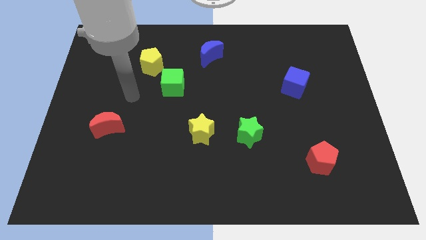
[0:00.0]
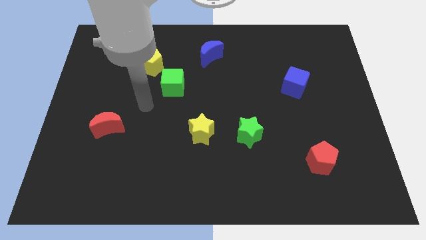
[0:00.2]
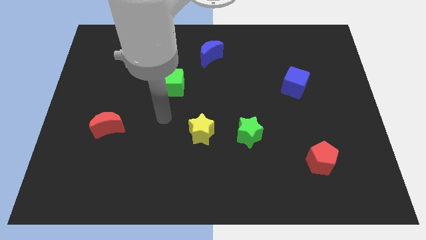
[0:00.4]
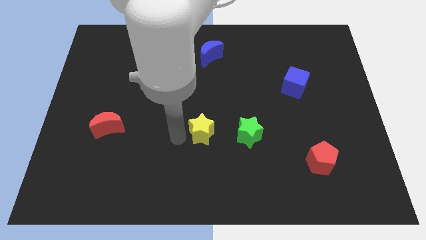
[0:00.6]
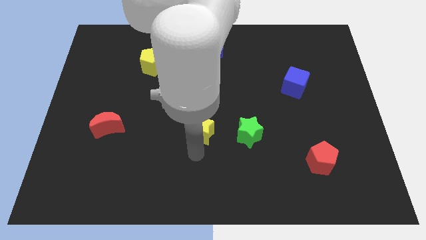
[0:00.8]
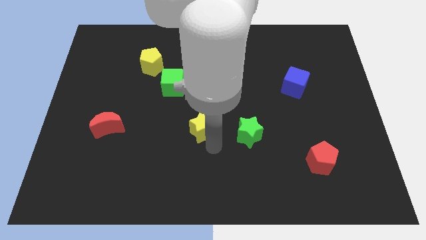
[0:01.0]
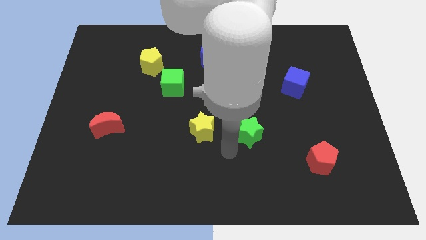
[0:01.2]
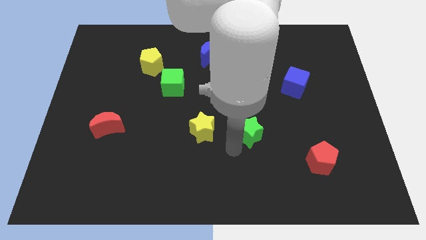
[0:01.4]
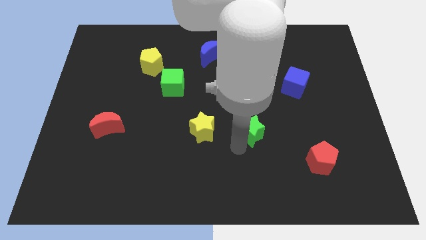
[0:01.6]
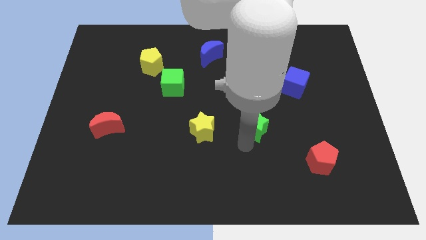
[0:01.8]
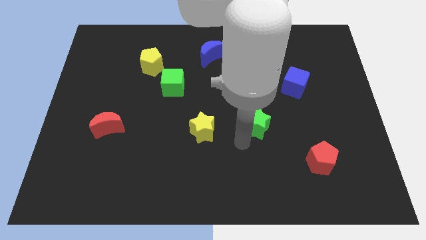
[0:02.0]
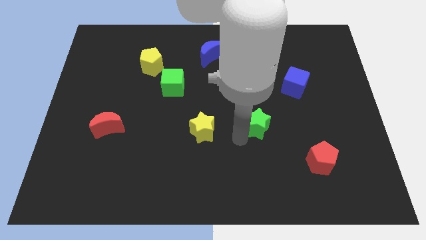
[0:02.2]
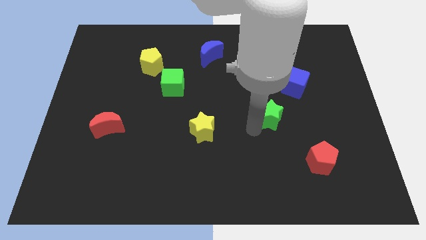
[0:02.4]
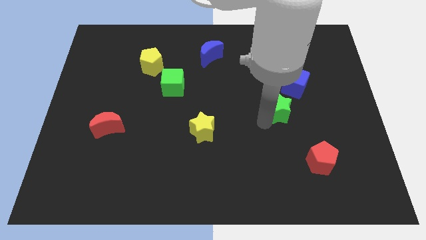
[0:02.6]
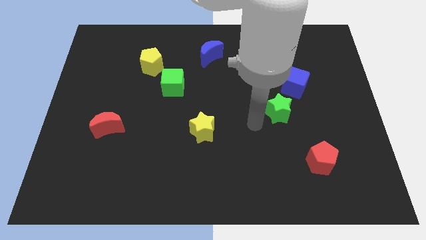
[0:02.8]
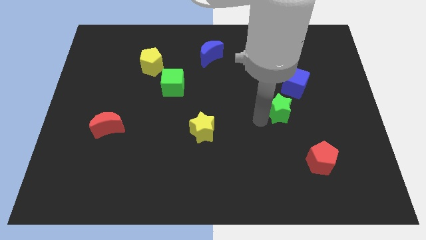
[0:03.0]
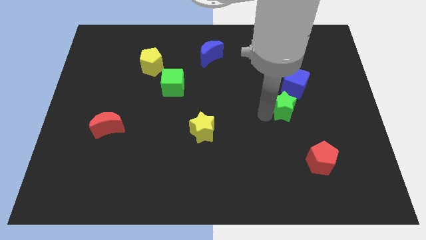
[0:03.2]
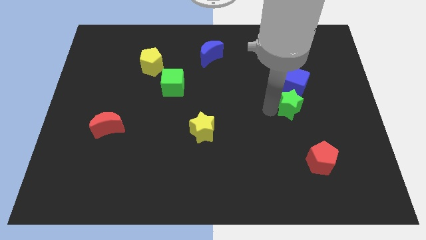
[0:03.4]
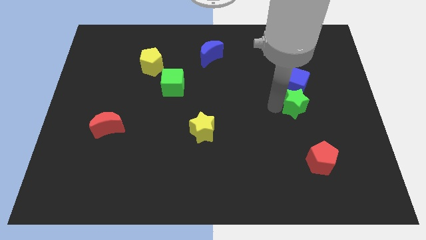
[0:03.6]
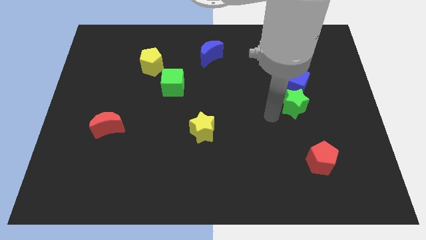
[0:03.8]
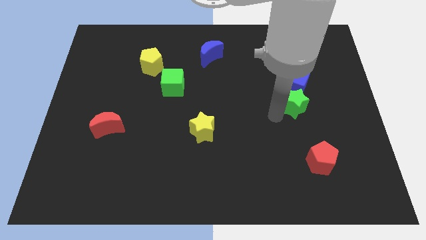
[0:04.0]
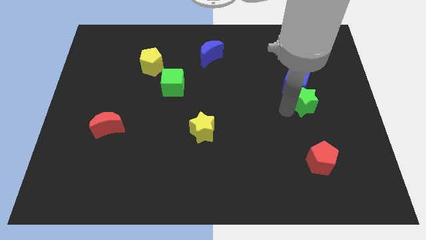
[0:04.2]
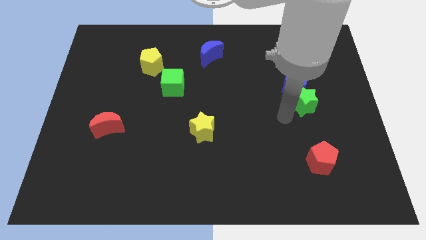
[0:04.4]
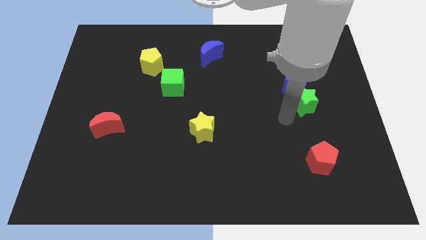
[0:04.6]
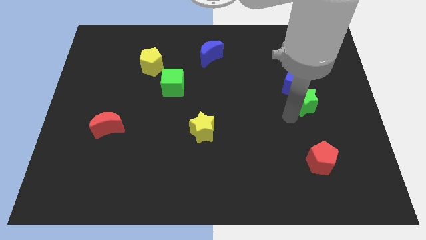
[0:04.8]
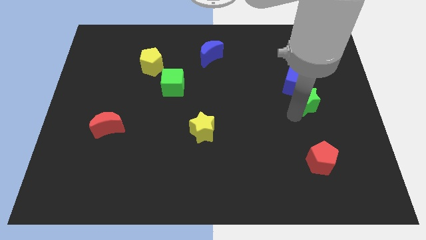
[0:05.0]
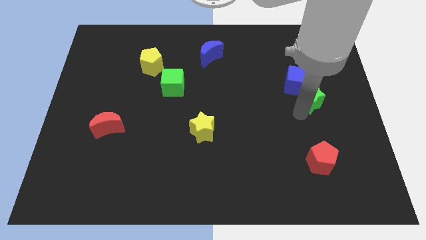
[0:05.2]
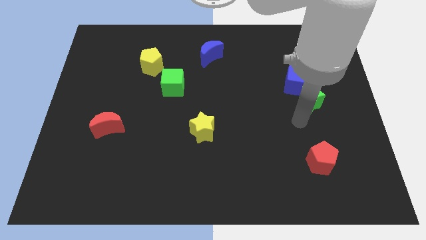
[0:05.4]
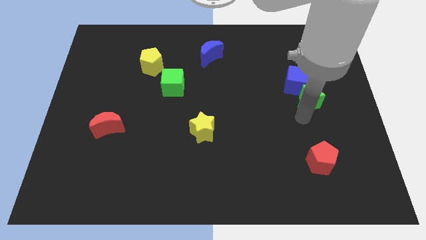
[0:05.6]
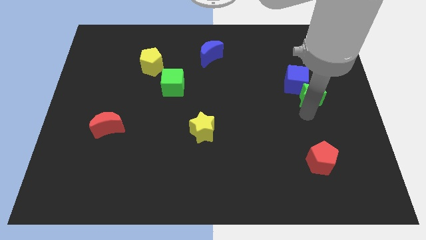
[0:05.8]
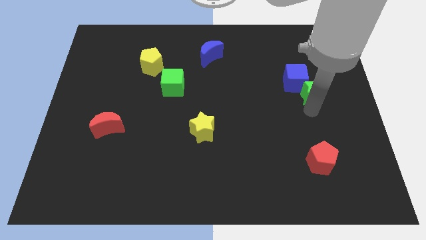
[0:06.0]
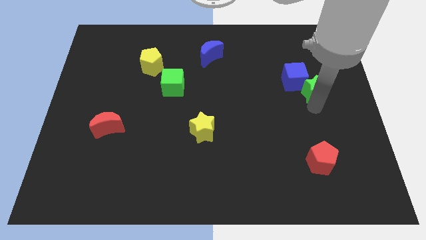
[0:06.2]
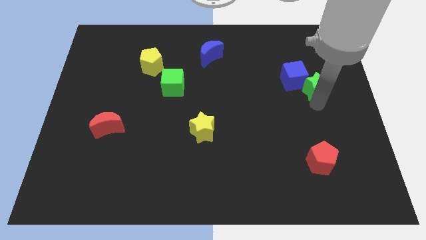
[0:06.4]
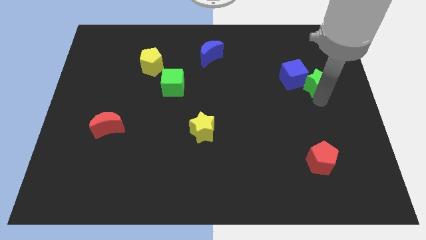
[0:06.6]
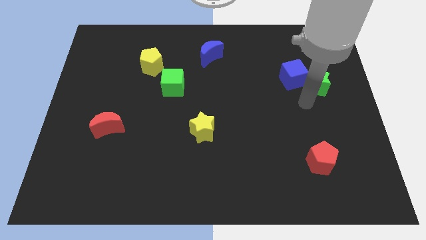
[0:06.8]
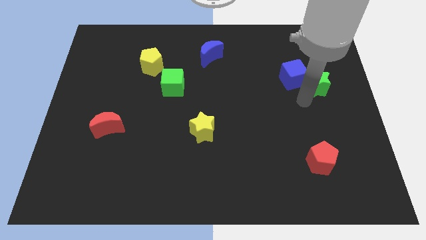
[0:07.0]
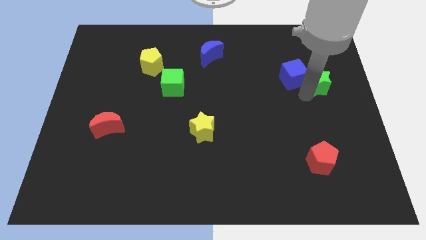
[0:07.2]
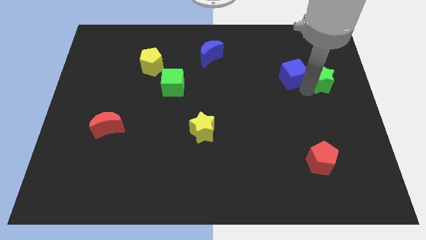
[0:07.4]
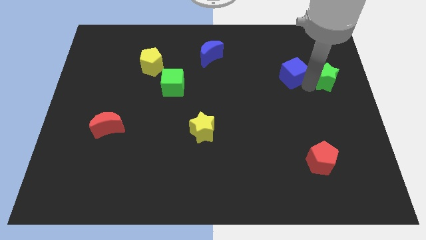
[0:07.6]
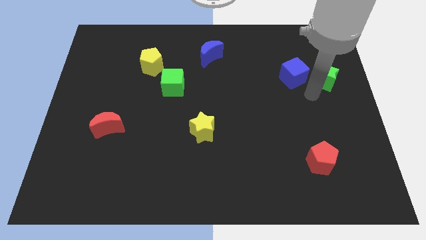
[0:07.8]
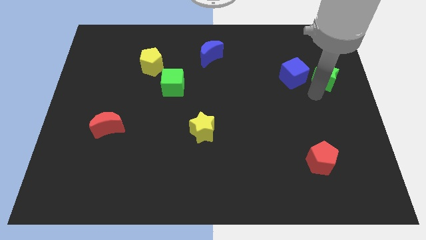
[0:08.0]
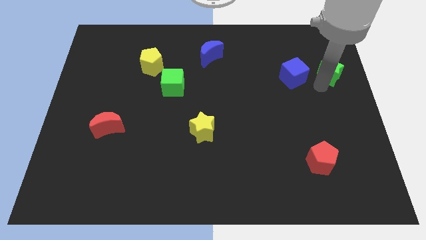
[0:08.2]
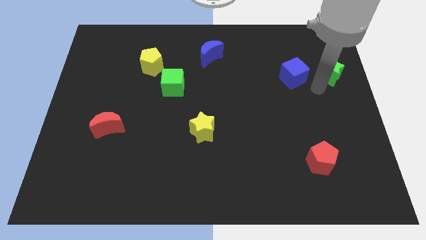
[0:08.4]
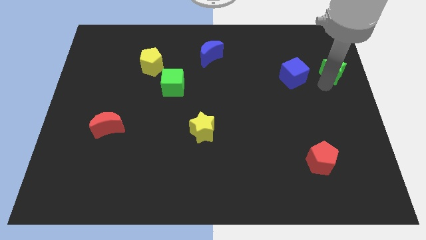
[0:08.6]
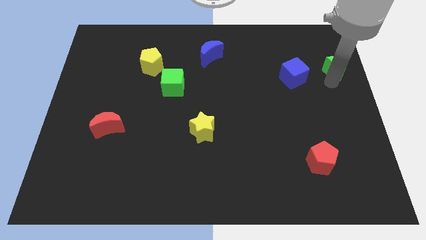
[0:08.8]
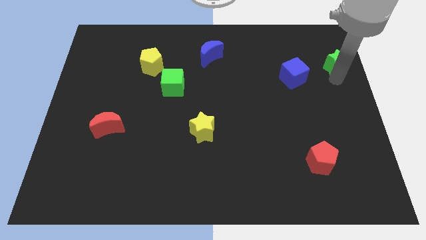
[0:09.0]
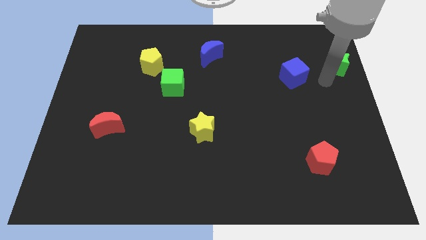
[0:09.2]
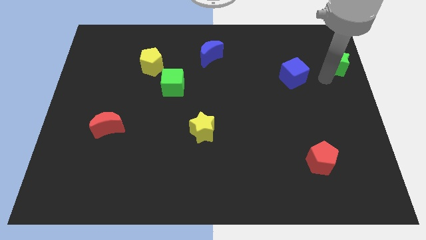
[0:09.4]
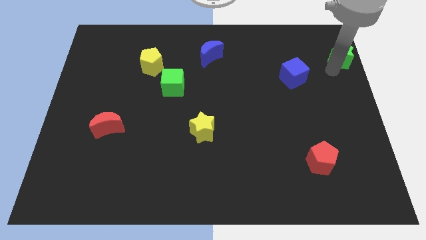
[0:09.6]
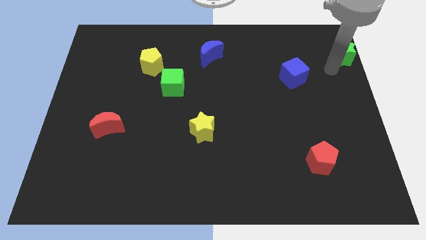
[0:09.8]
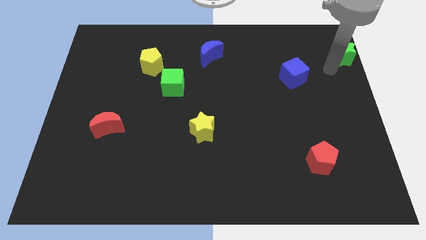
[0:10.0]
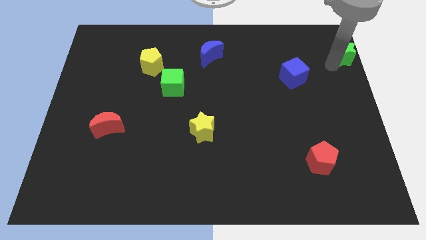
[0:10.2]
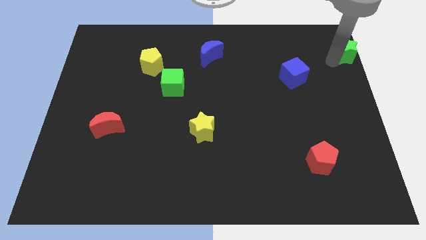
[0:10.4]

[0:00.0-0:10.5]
put the green star to the top right of the board

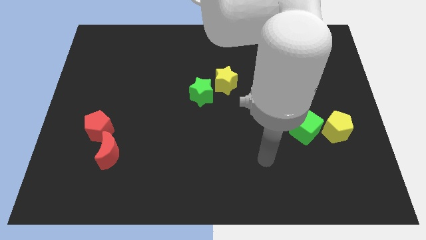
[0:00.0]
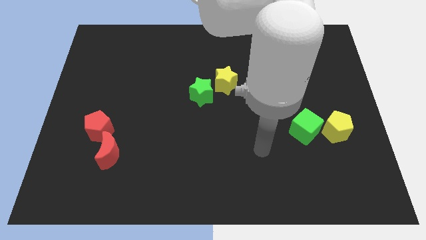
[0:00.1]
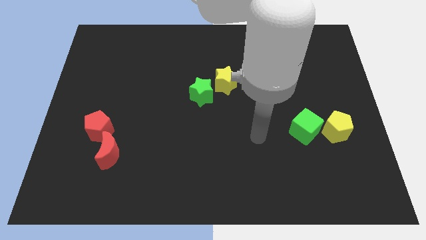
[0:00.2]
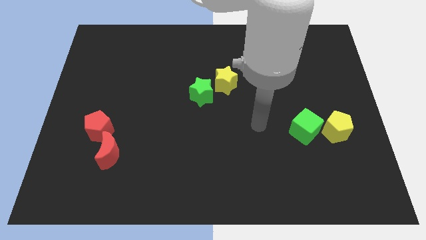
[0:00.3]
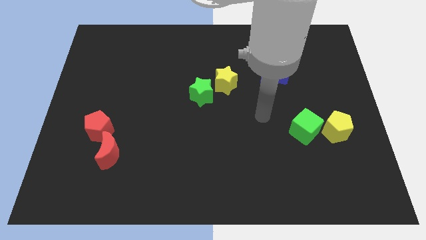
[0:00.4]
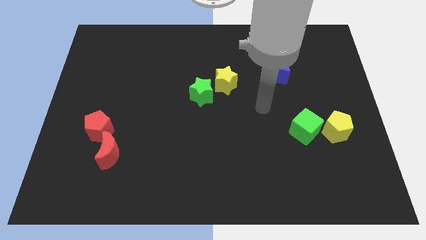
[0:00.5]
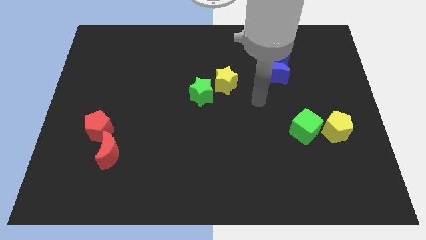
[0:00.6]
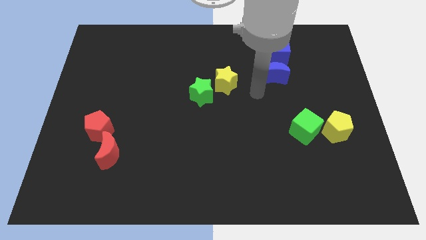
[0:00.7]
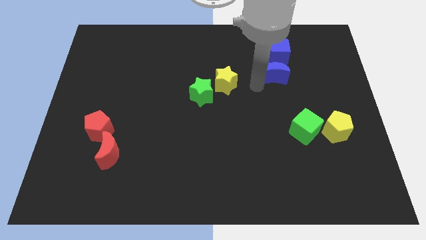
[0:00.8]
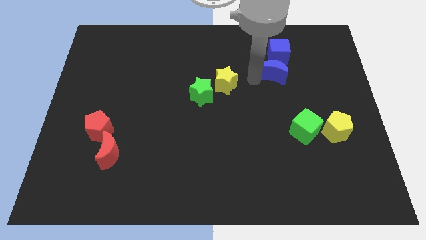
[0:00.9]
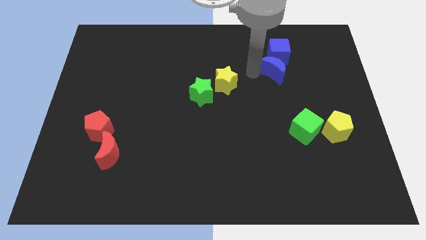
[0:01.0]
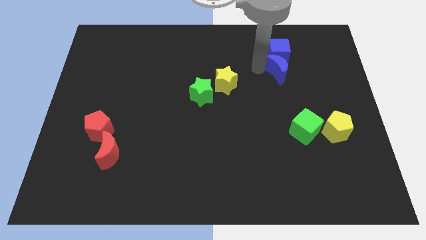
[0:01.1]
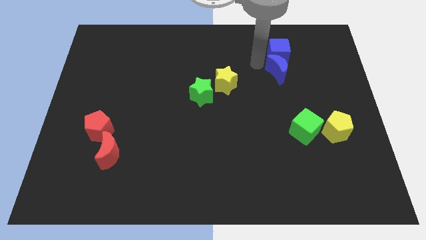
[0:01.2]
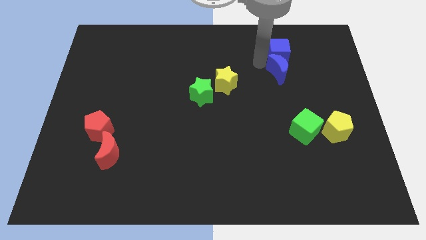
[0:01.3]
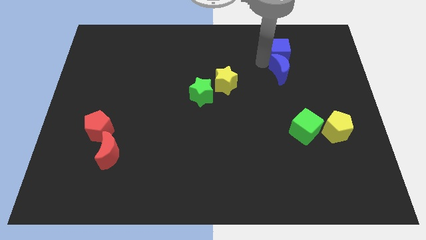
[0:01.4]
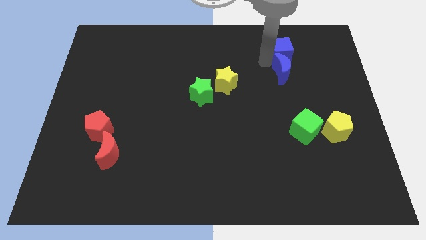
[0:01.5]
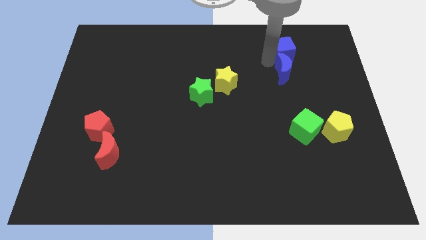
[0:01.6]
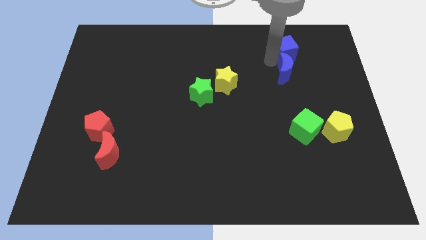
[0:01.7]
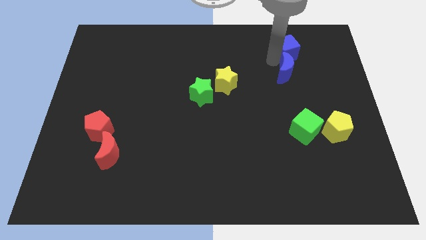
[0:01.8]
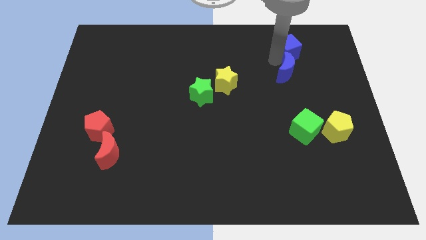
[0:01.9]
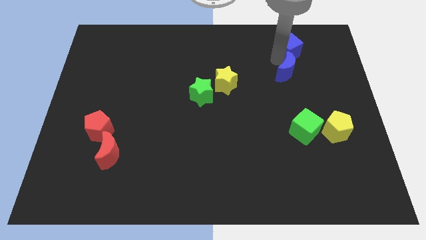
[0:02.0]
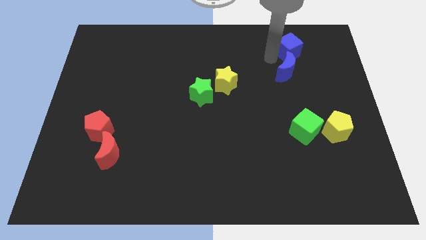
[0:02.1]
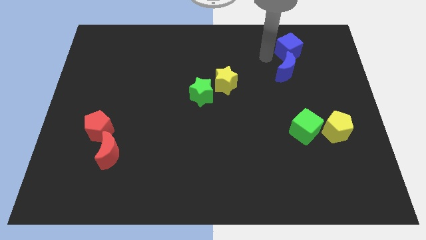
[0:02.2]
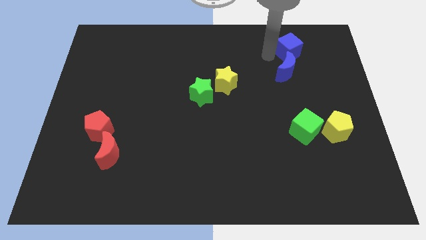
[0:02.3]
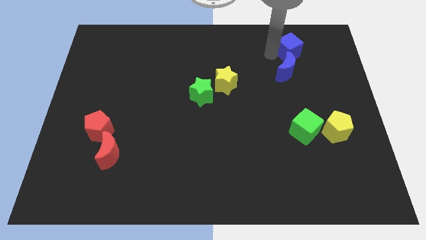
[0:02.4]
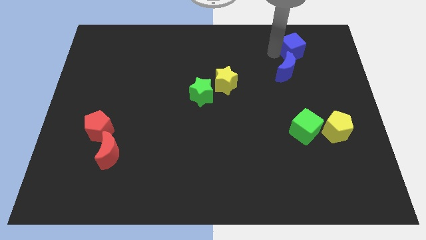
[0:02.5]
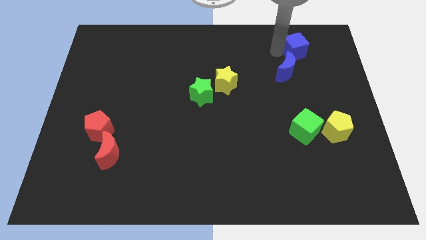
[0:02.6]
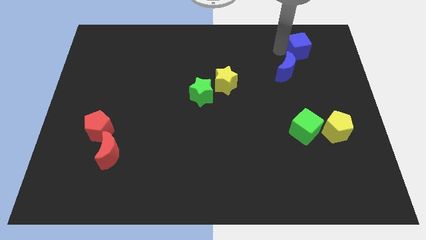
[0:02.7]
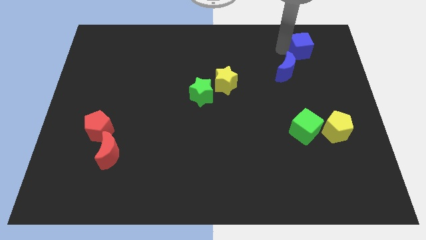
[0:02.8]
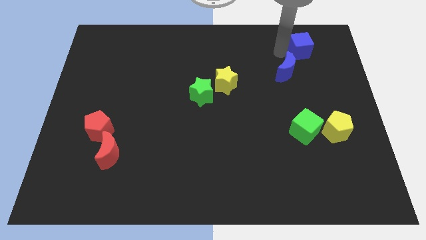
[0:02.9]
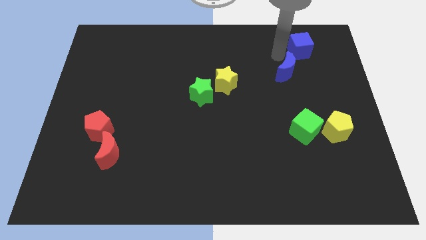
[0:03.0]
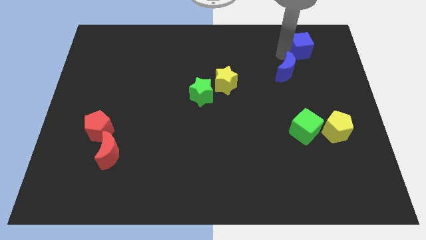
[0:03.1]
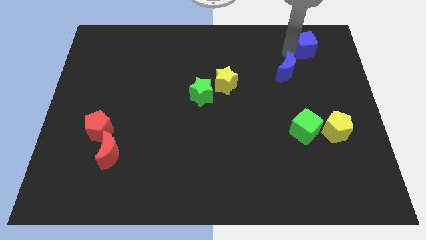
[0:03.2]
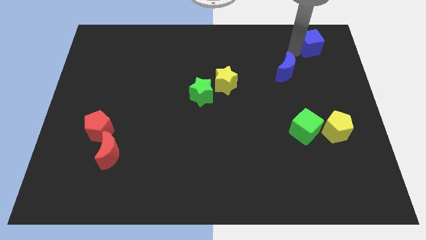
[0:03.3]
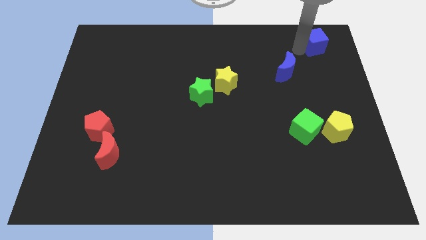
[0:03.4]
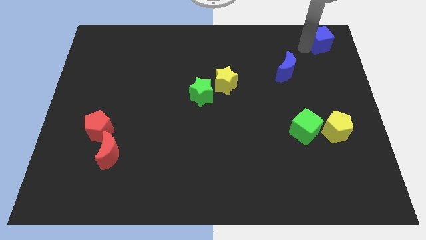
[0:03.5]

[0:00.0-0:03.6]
move the blue cube to the top right corner
